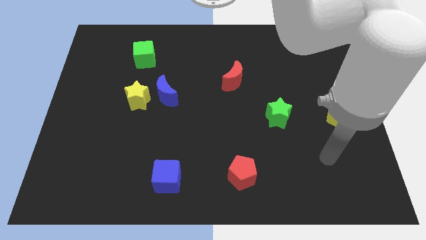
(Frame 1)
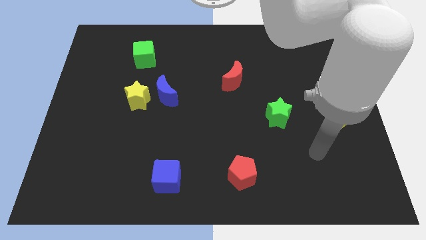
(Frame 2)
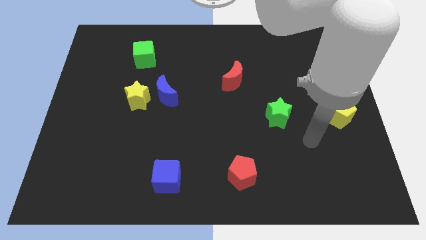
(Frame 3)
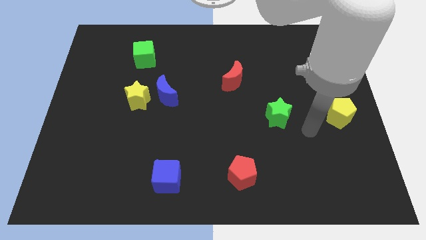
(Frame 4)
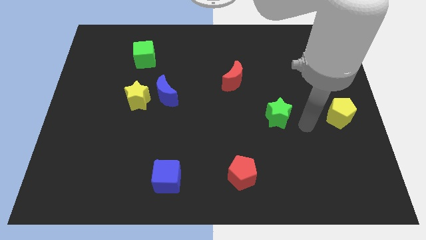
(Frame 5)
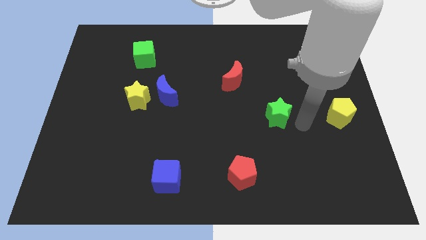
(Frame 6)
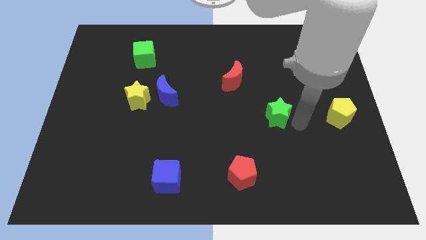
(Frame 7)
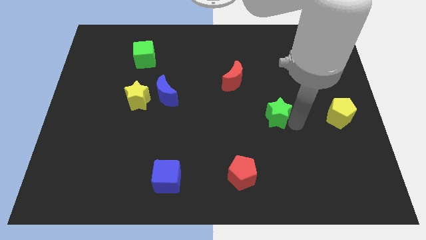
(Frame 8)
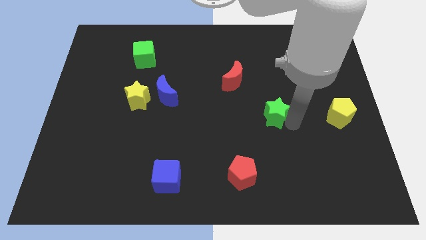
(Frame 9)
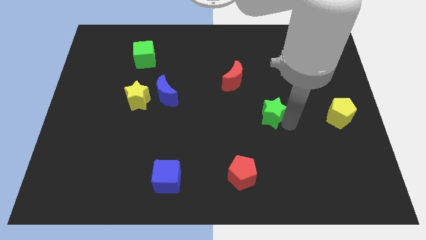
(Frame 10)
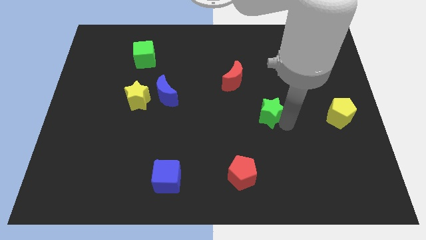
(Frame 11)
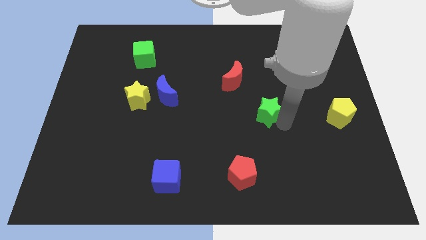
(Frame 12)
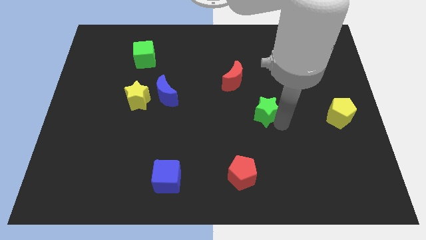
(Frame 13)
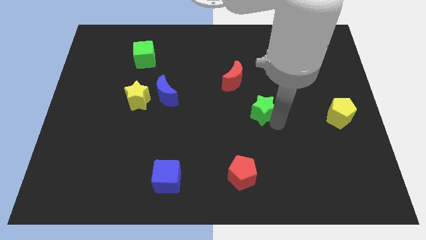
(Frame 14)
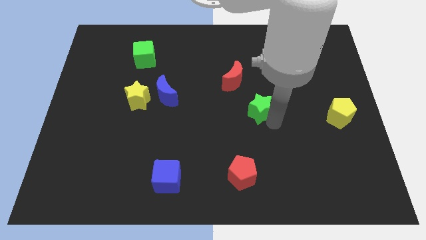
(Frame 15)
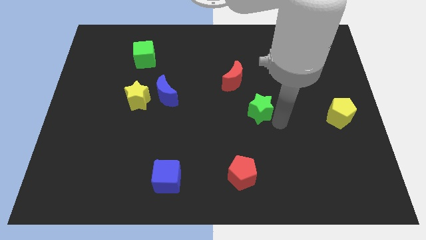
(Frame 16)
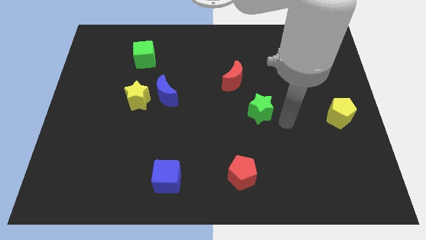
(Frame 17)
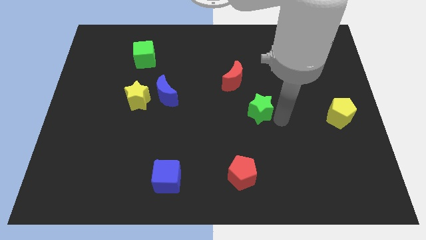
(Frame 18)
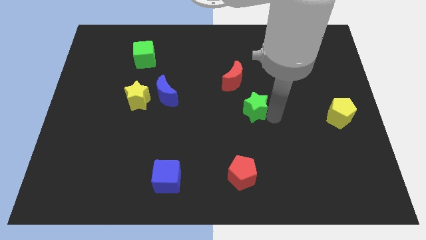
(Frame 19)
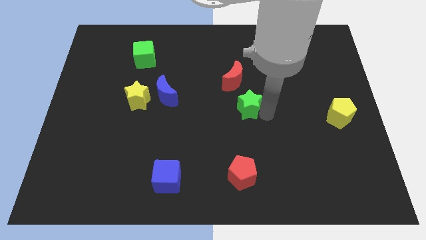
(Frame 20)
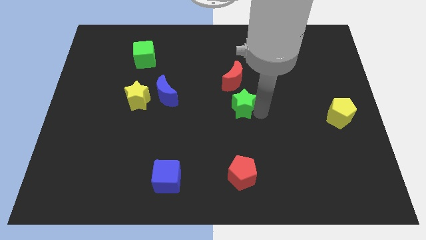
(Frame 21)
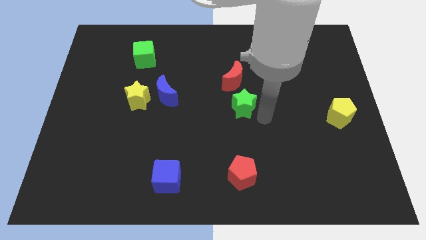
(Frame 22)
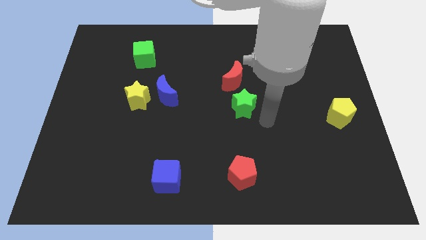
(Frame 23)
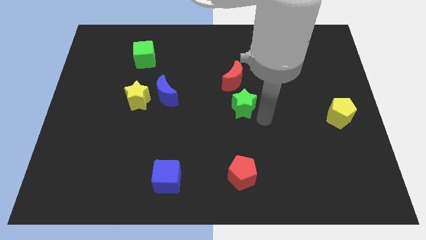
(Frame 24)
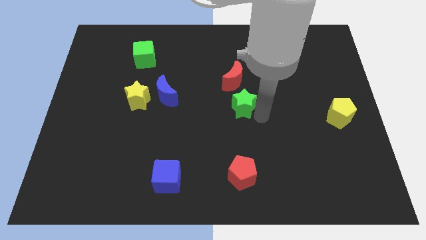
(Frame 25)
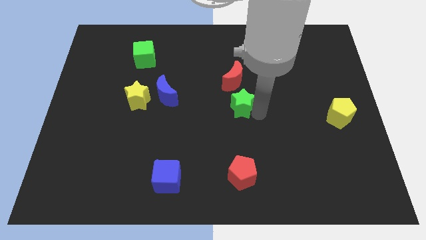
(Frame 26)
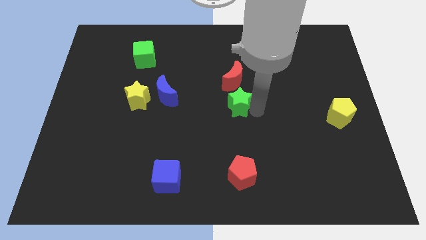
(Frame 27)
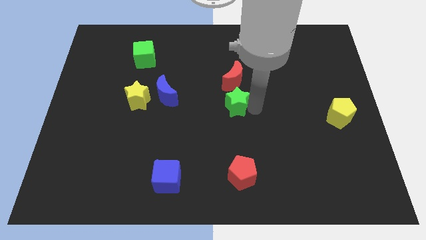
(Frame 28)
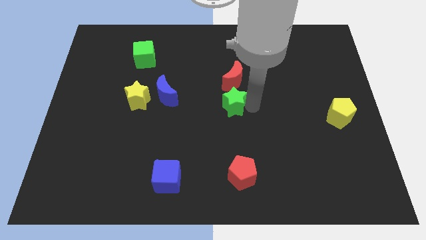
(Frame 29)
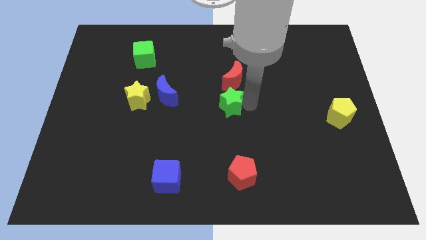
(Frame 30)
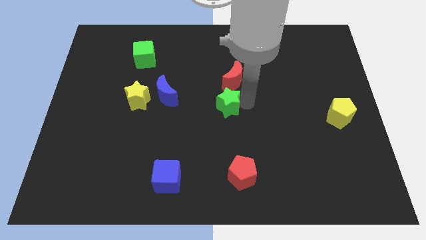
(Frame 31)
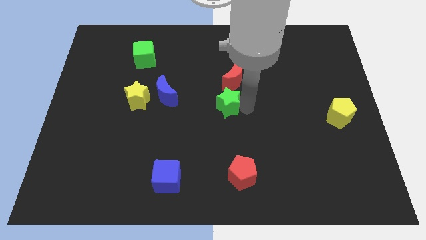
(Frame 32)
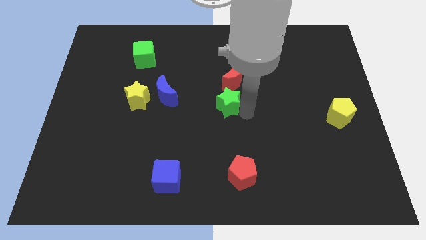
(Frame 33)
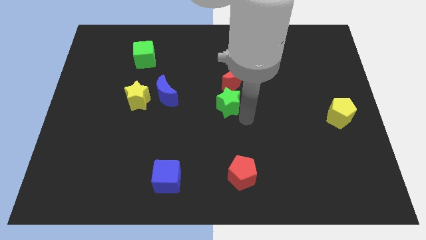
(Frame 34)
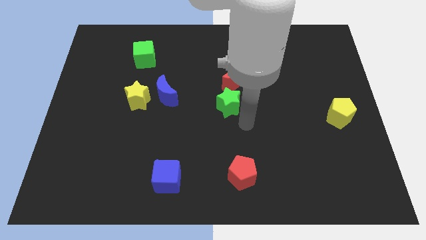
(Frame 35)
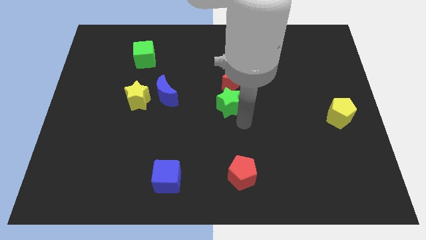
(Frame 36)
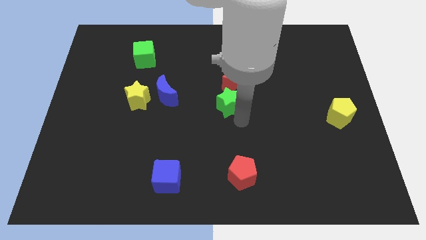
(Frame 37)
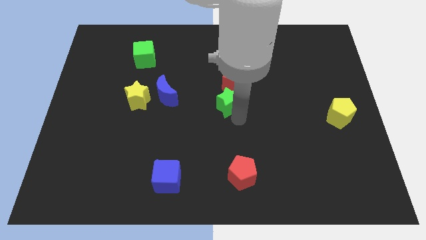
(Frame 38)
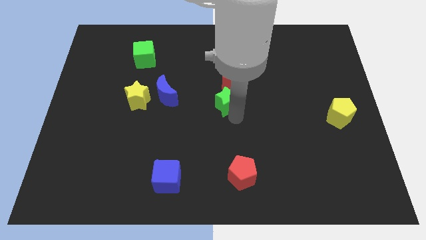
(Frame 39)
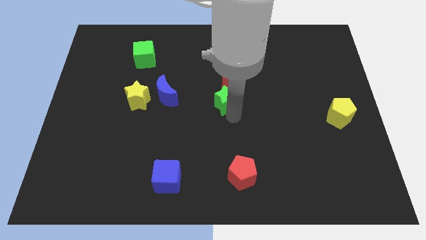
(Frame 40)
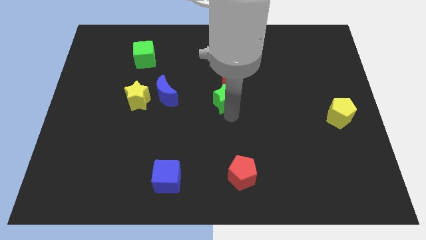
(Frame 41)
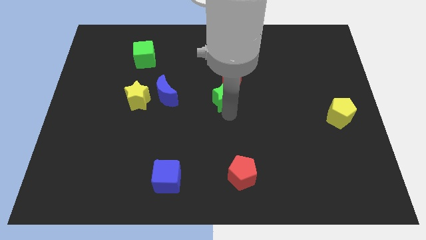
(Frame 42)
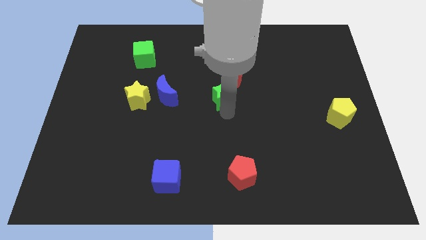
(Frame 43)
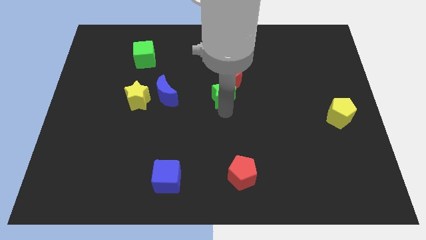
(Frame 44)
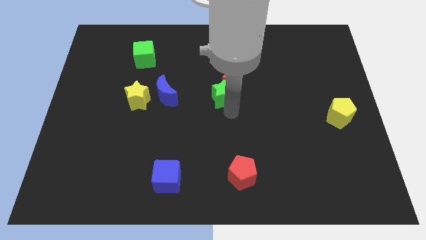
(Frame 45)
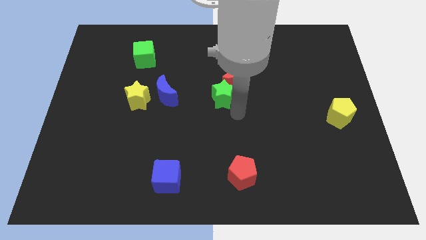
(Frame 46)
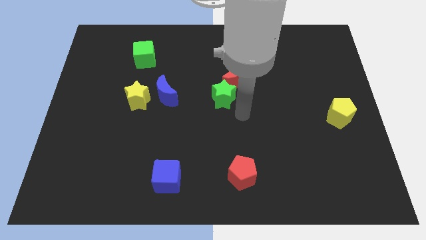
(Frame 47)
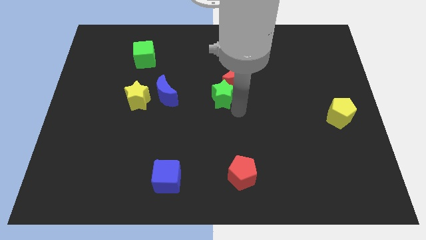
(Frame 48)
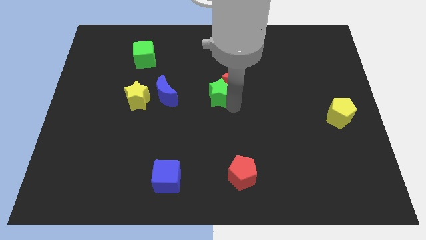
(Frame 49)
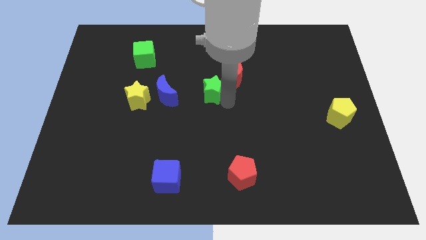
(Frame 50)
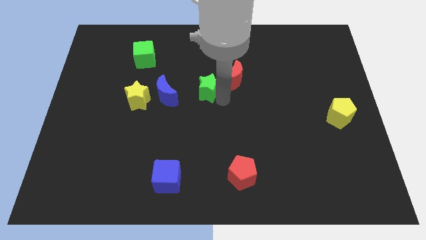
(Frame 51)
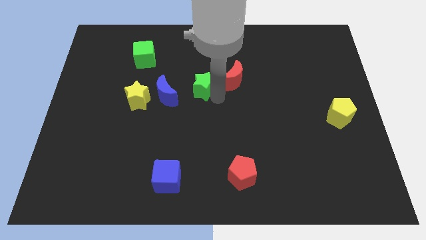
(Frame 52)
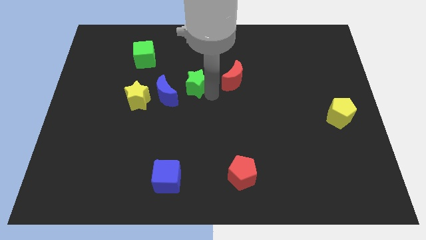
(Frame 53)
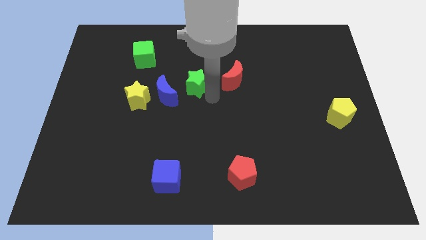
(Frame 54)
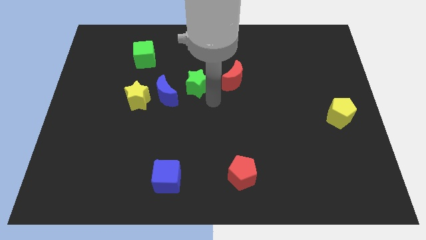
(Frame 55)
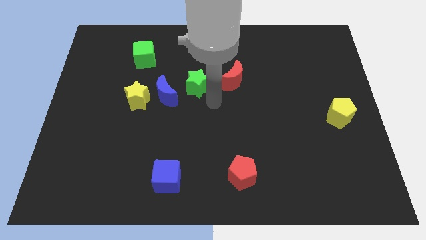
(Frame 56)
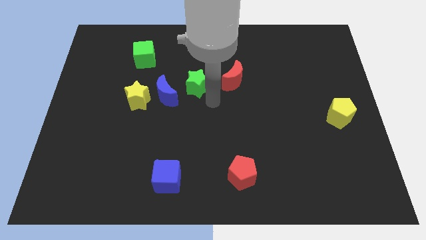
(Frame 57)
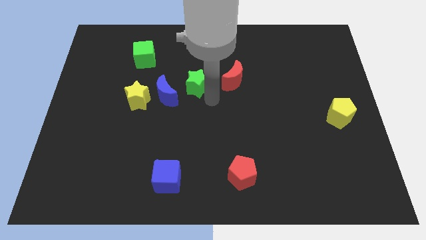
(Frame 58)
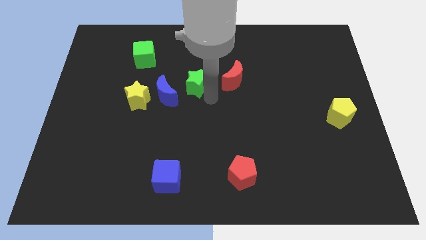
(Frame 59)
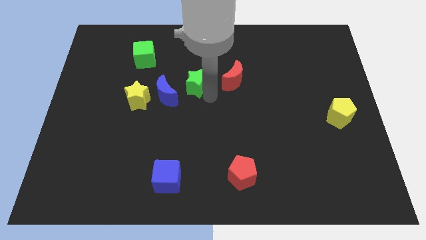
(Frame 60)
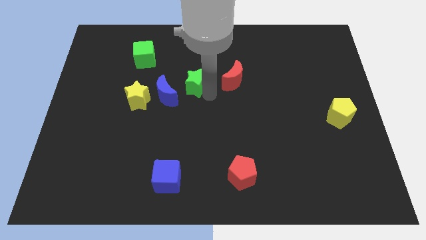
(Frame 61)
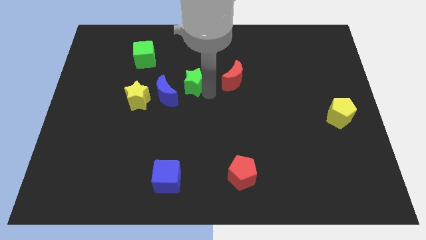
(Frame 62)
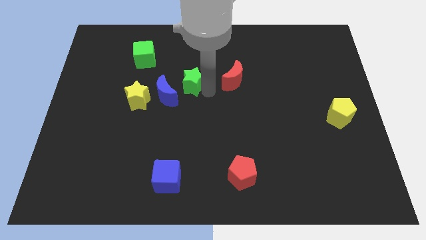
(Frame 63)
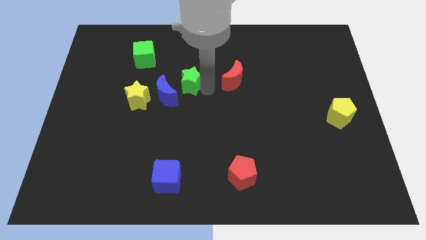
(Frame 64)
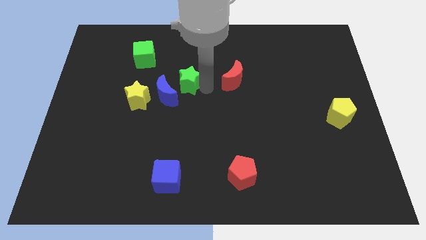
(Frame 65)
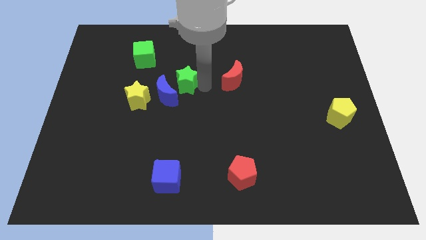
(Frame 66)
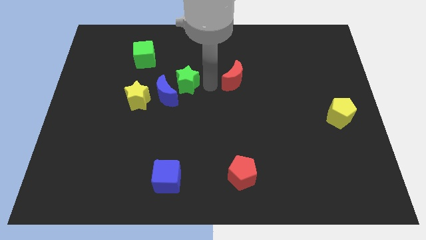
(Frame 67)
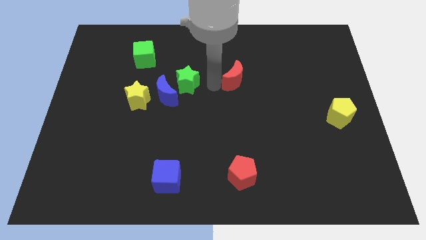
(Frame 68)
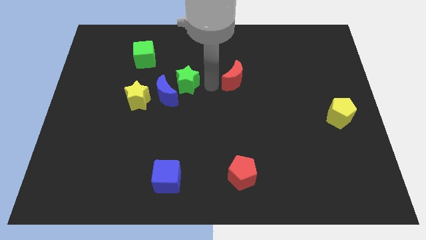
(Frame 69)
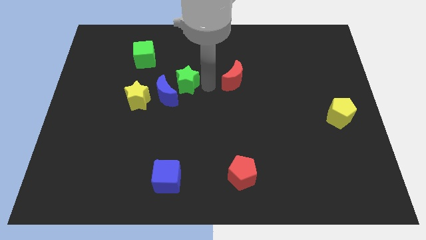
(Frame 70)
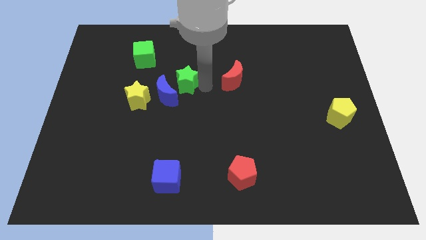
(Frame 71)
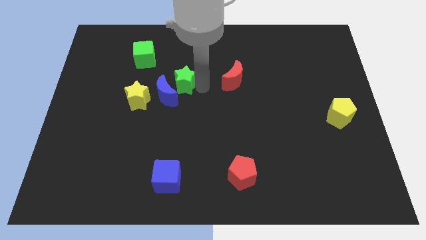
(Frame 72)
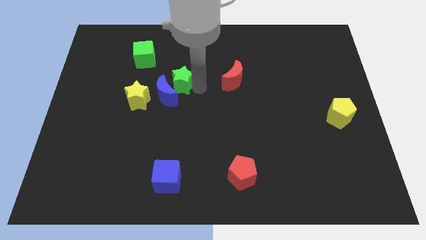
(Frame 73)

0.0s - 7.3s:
push the green star diagonally up and to the right of the yellow star
